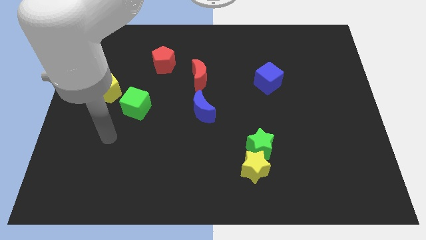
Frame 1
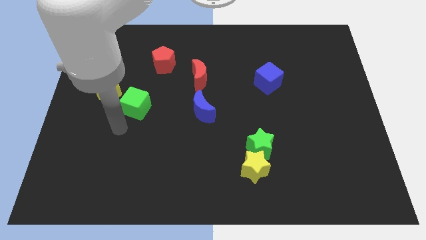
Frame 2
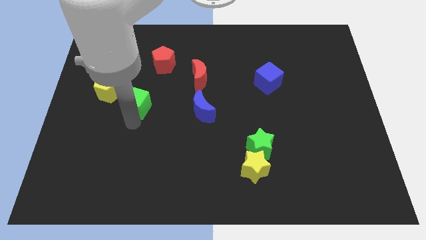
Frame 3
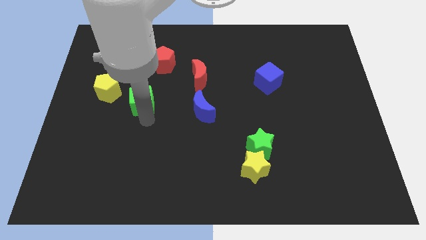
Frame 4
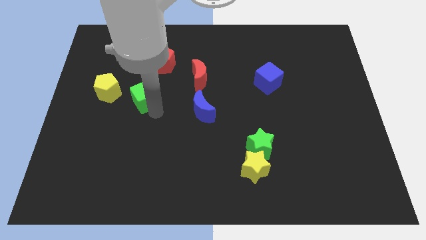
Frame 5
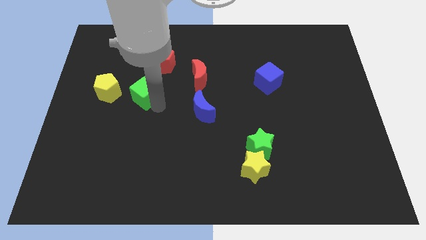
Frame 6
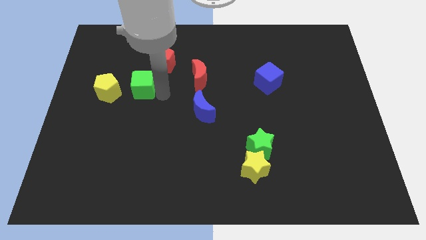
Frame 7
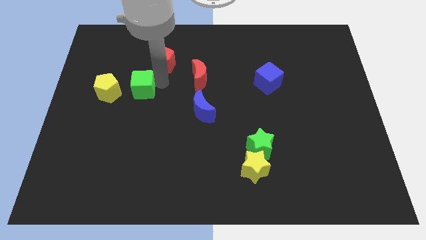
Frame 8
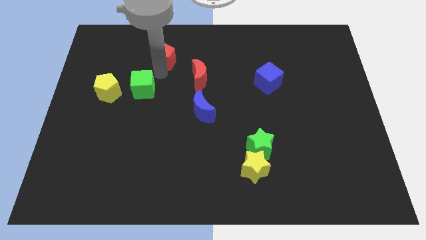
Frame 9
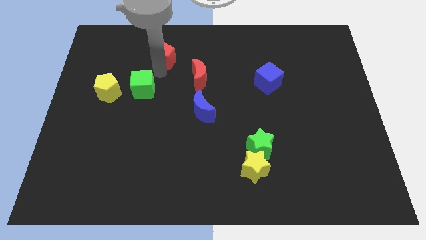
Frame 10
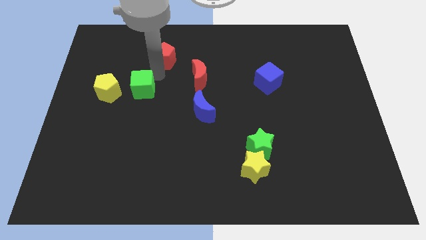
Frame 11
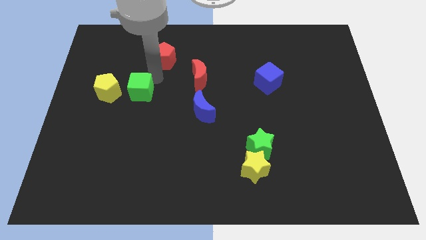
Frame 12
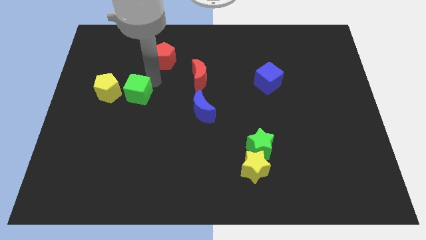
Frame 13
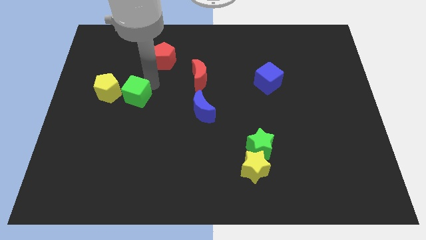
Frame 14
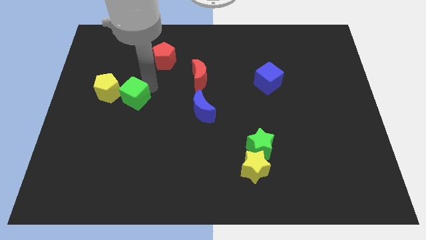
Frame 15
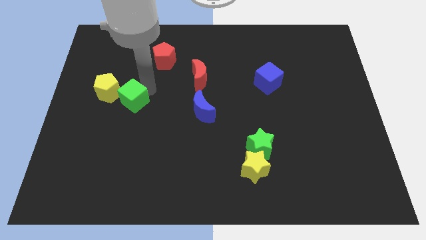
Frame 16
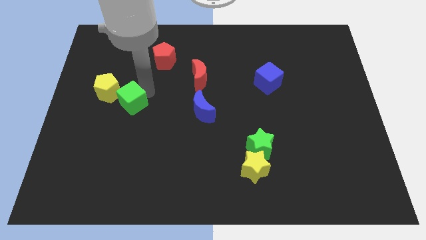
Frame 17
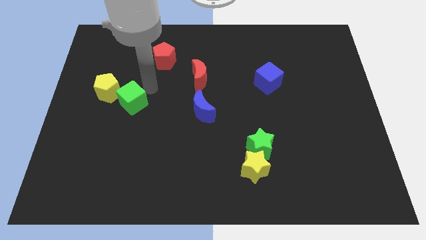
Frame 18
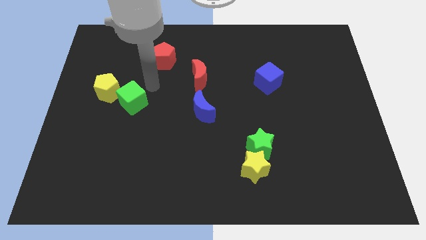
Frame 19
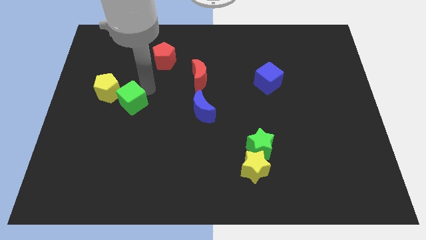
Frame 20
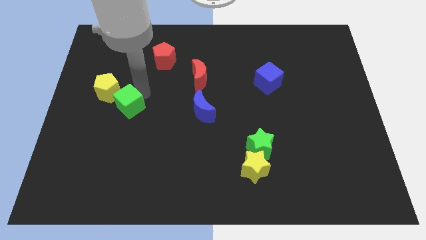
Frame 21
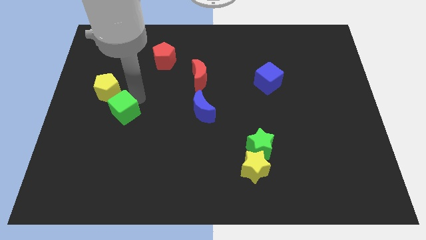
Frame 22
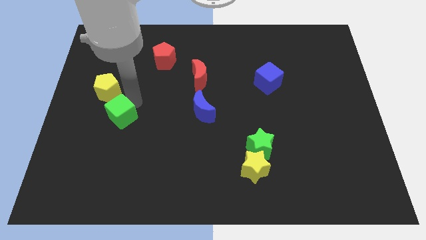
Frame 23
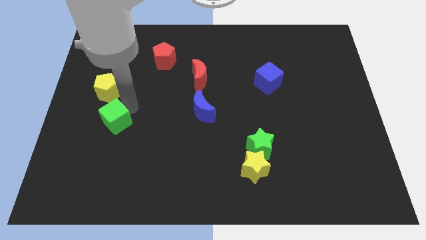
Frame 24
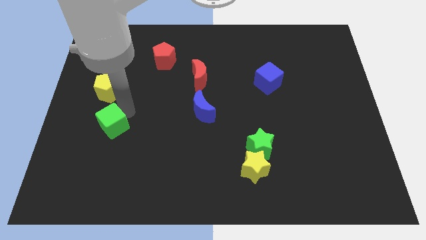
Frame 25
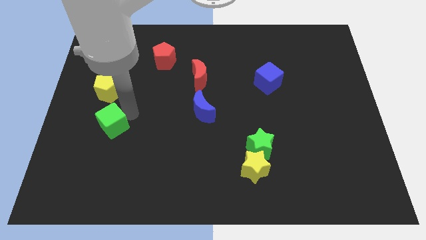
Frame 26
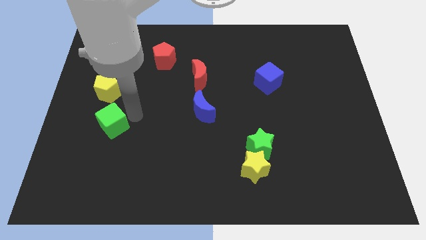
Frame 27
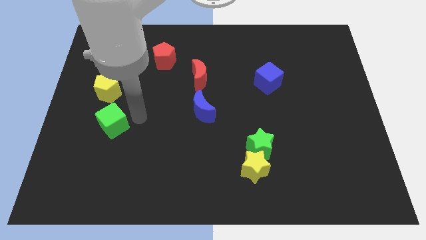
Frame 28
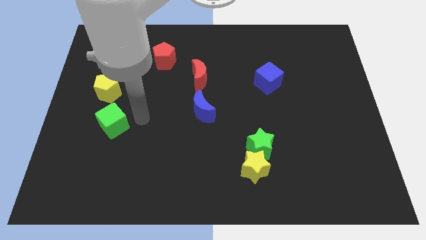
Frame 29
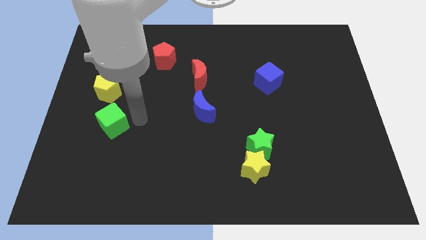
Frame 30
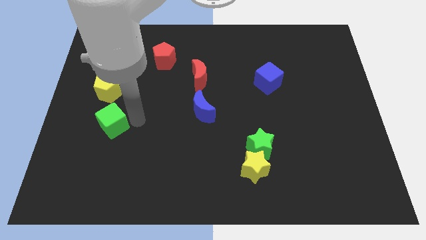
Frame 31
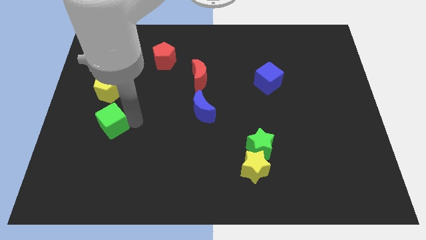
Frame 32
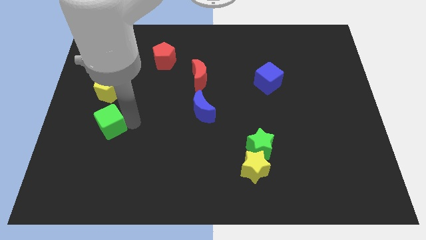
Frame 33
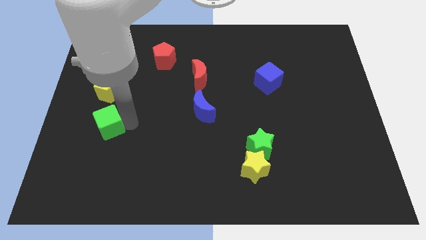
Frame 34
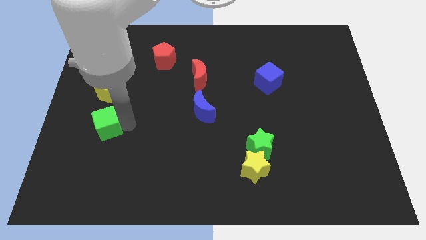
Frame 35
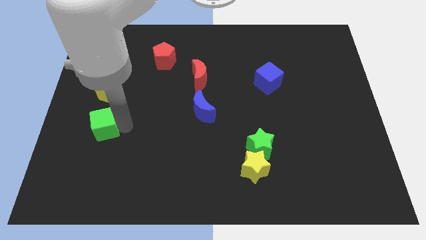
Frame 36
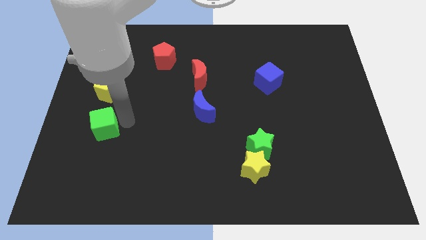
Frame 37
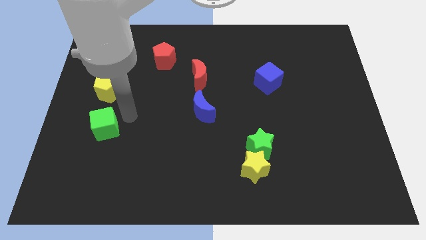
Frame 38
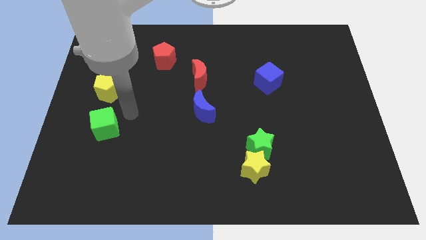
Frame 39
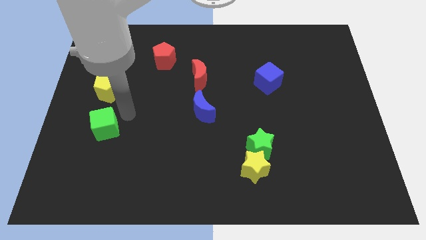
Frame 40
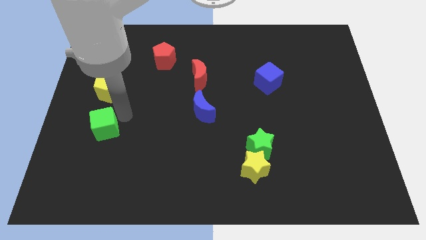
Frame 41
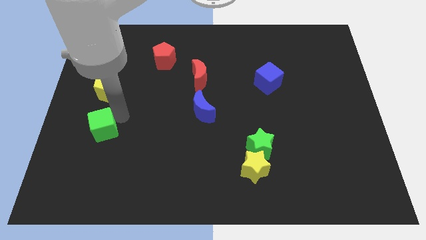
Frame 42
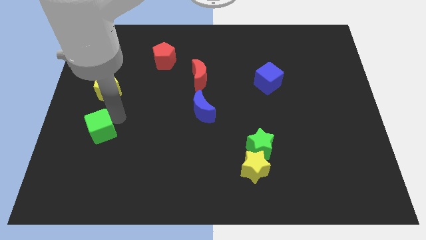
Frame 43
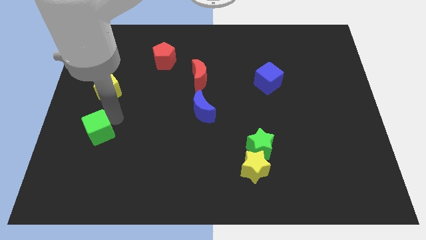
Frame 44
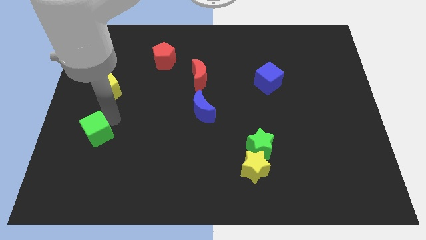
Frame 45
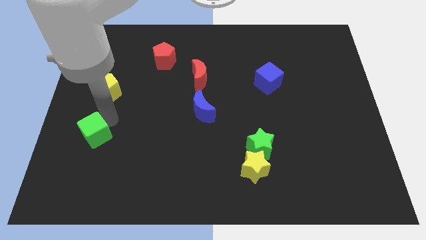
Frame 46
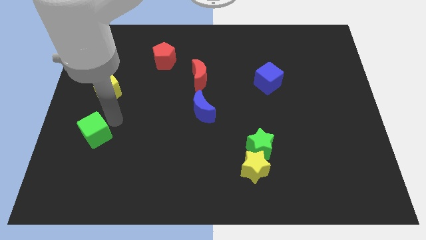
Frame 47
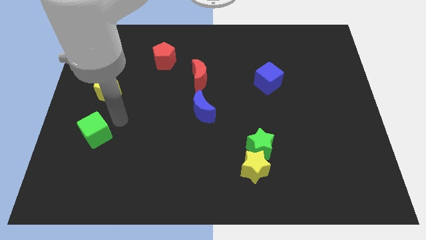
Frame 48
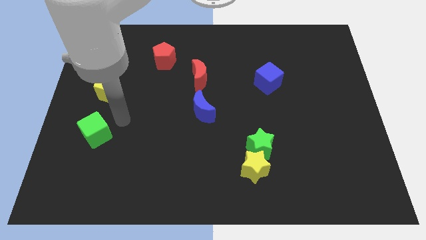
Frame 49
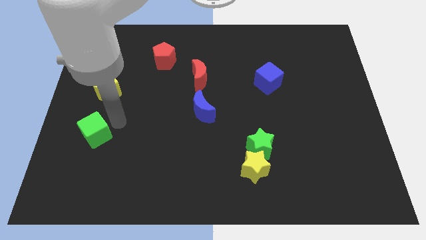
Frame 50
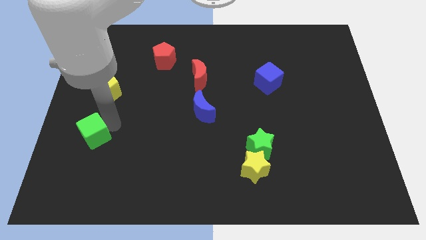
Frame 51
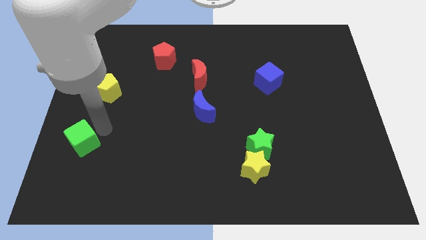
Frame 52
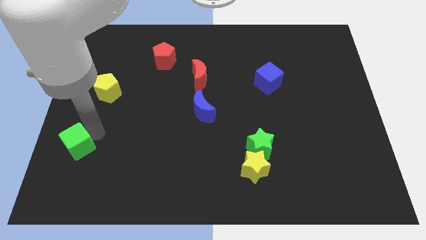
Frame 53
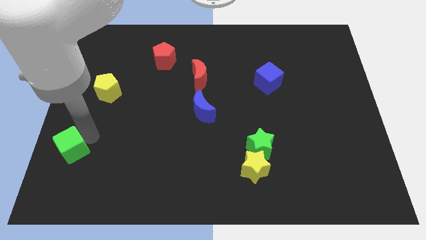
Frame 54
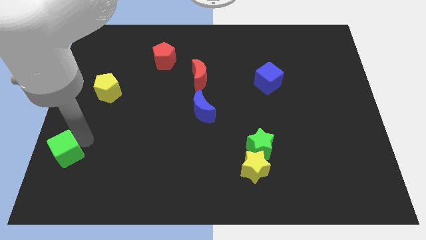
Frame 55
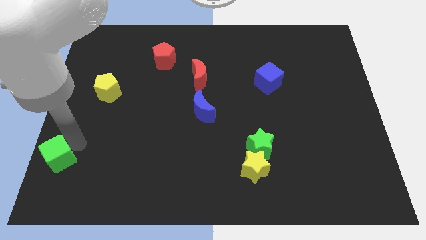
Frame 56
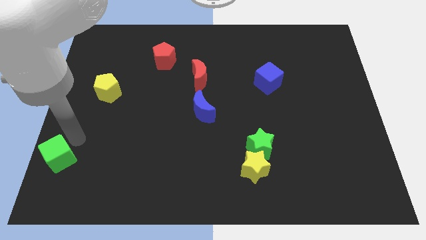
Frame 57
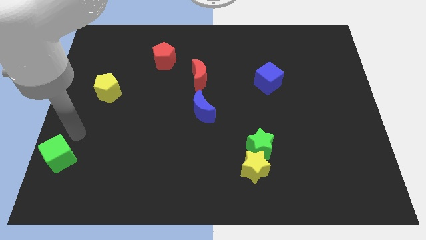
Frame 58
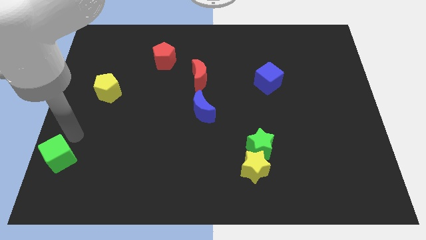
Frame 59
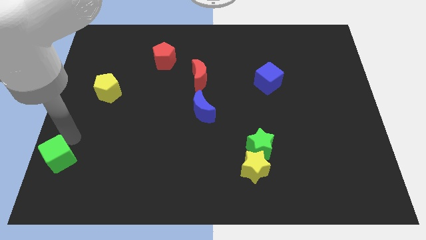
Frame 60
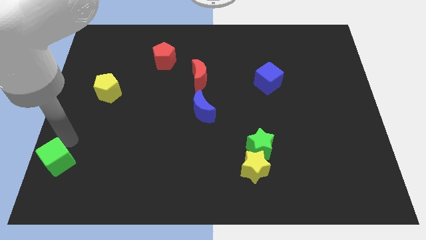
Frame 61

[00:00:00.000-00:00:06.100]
slide the green cube to the bottom left corner
